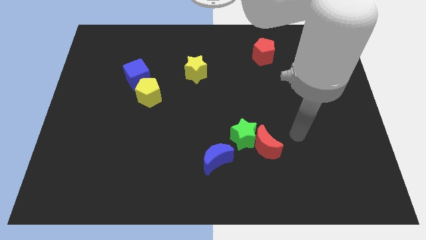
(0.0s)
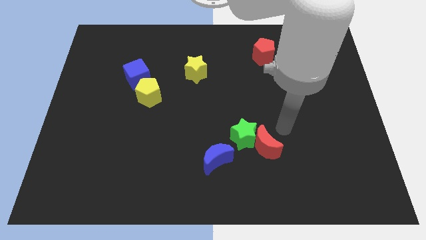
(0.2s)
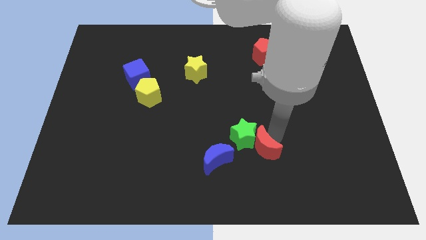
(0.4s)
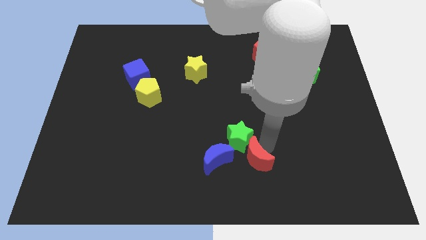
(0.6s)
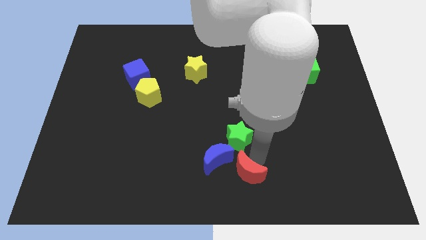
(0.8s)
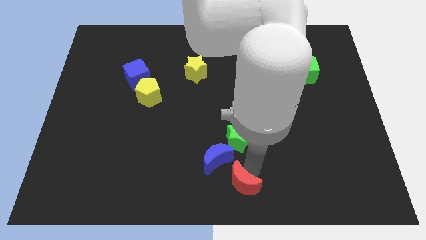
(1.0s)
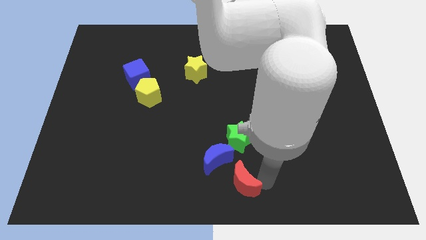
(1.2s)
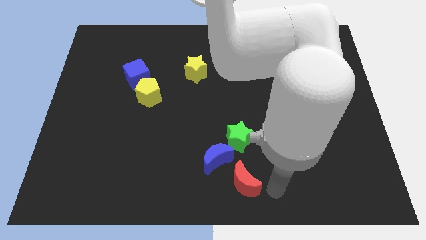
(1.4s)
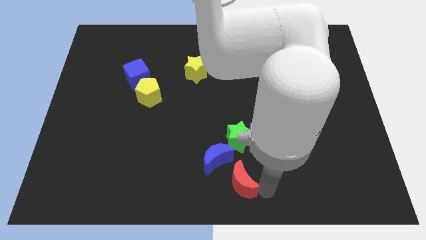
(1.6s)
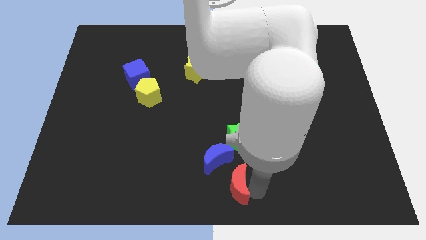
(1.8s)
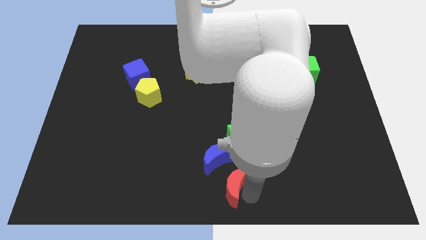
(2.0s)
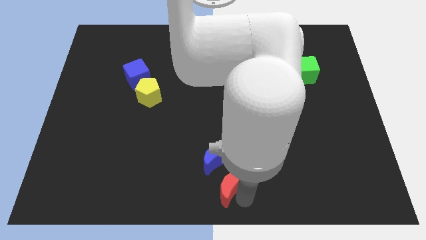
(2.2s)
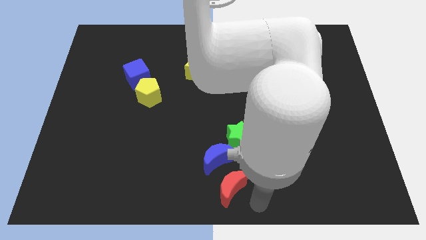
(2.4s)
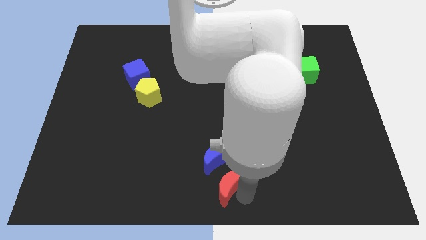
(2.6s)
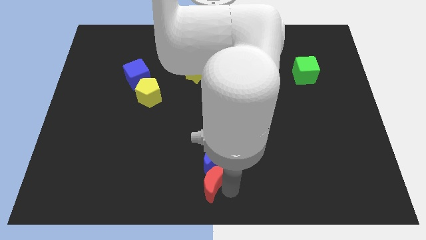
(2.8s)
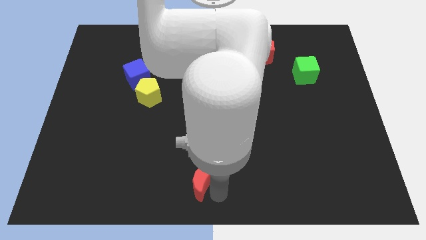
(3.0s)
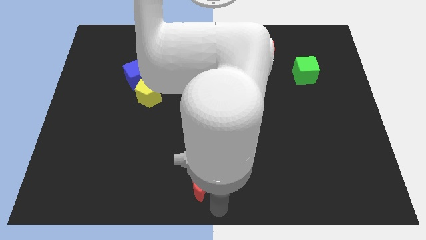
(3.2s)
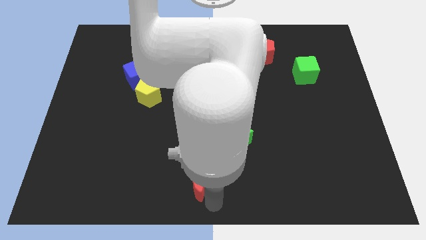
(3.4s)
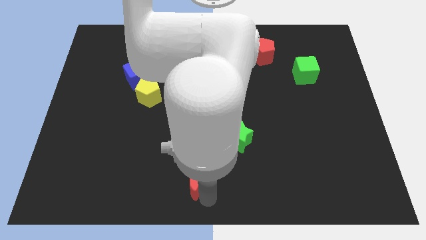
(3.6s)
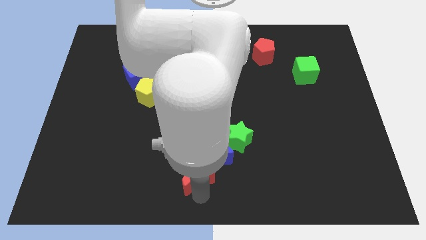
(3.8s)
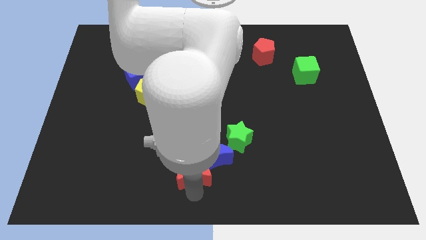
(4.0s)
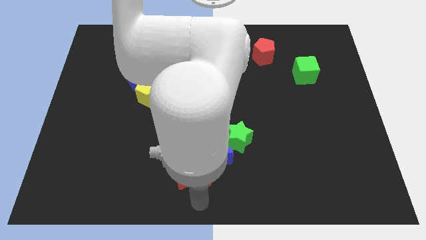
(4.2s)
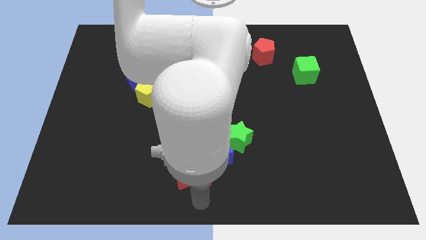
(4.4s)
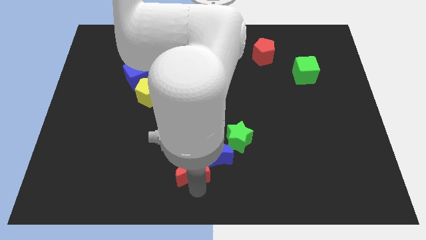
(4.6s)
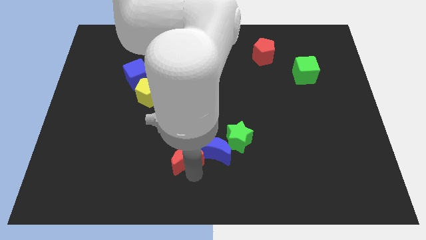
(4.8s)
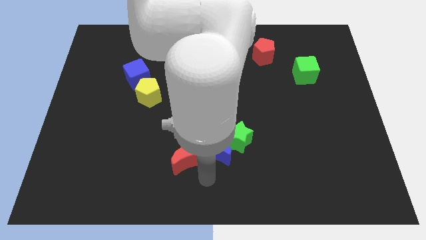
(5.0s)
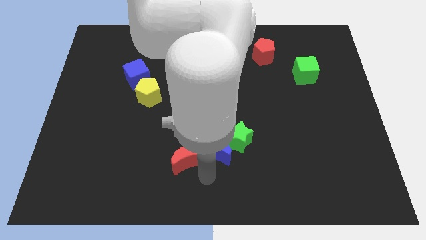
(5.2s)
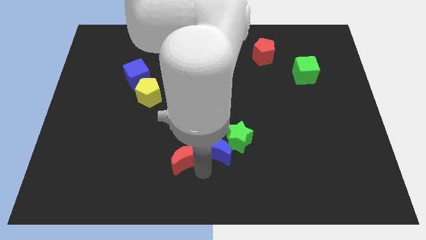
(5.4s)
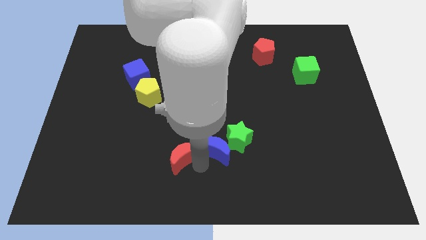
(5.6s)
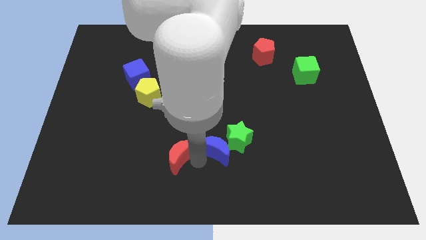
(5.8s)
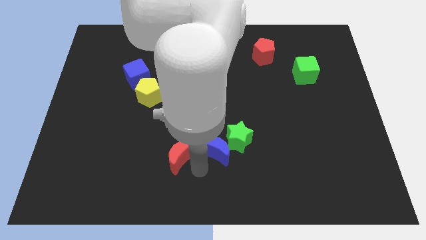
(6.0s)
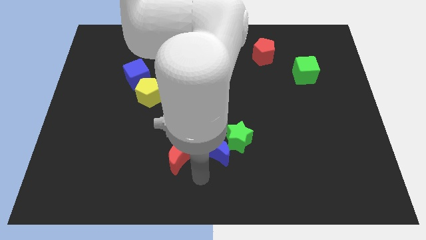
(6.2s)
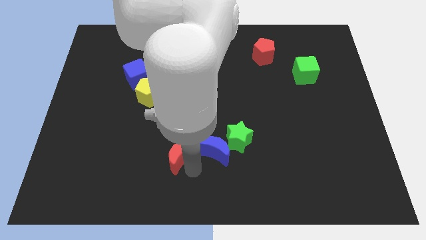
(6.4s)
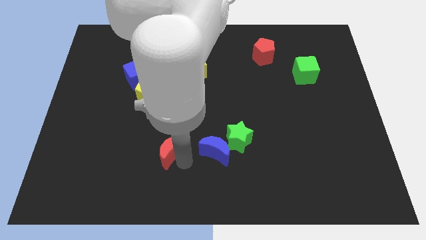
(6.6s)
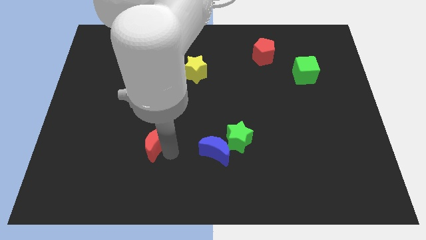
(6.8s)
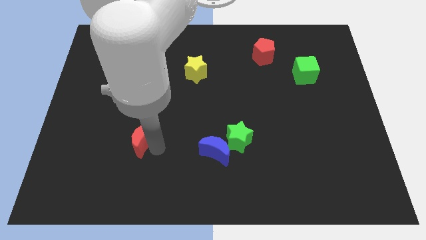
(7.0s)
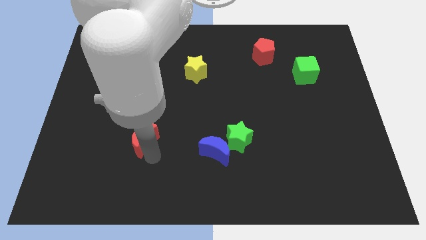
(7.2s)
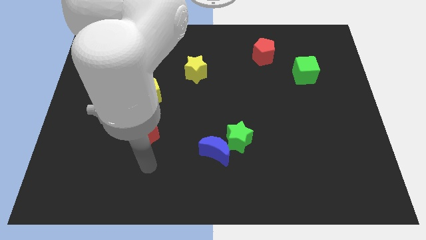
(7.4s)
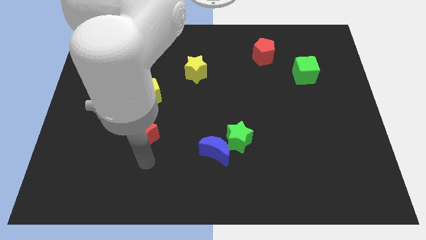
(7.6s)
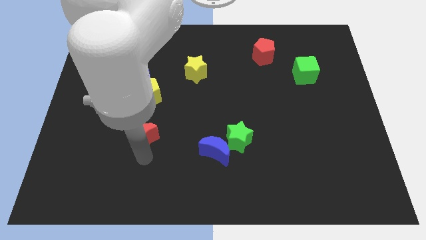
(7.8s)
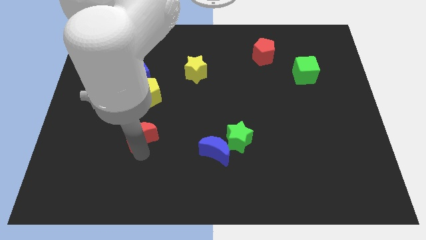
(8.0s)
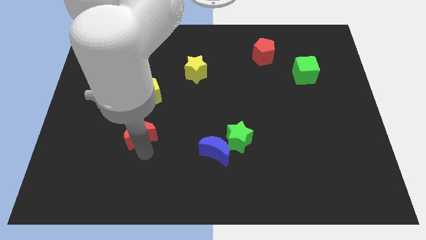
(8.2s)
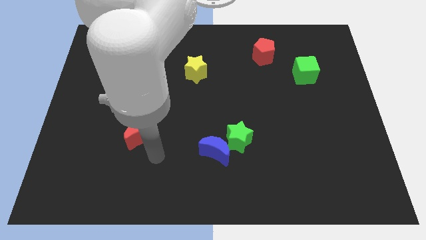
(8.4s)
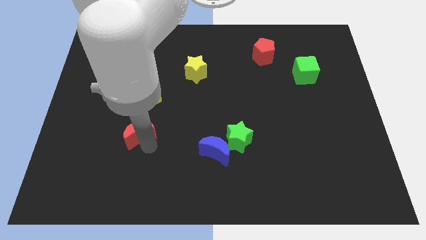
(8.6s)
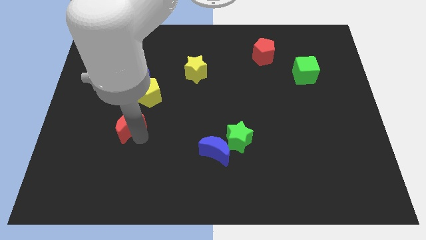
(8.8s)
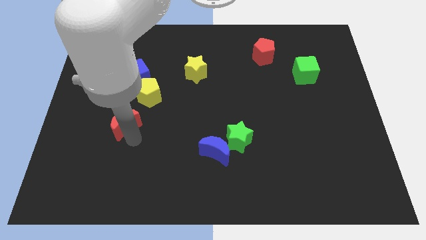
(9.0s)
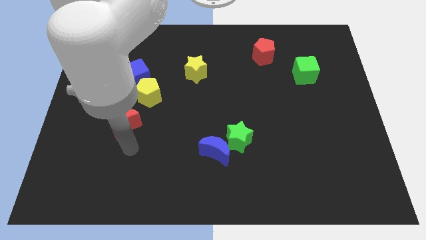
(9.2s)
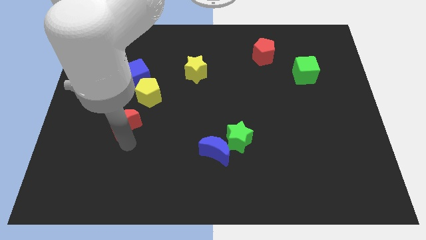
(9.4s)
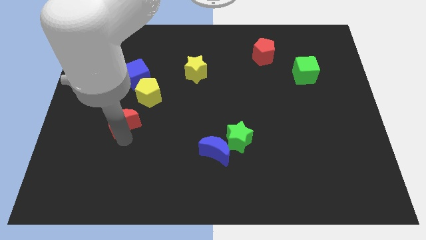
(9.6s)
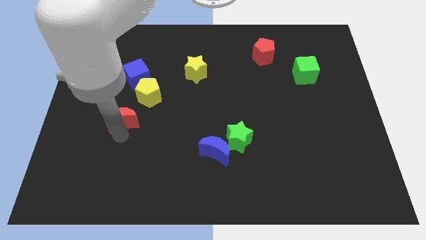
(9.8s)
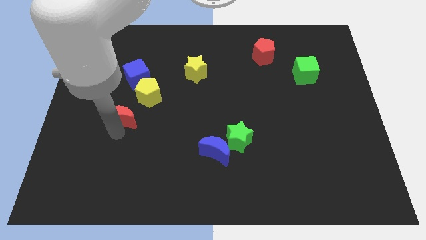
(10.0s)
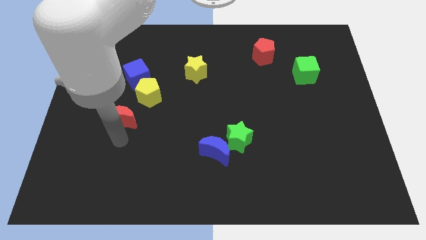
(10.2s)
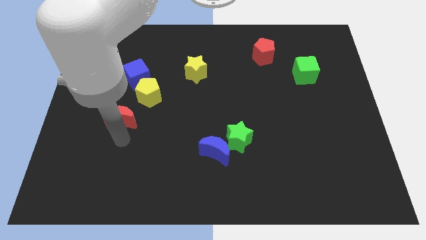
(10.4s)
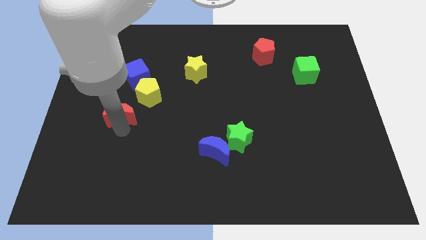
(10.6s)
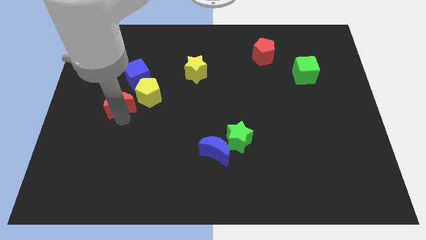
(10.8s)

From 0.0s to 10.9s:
put the red moon to the bottom left side of the blue cube
